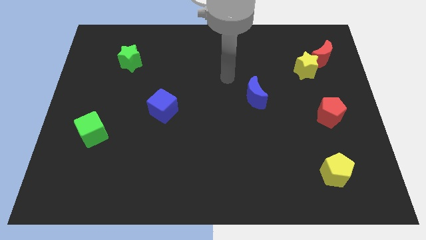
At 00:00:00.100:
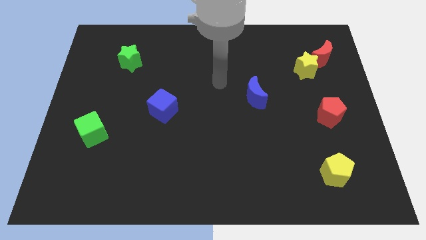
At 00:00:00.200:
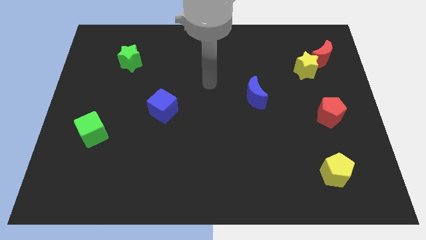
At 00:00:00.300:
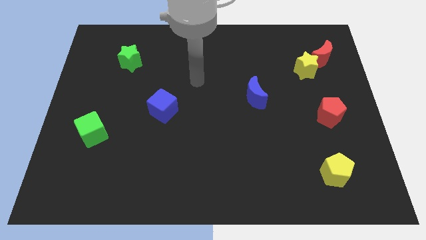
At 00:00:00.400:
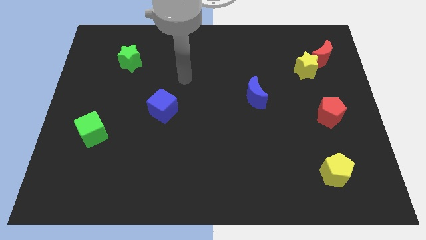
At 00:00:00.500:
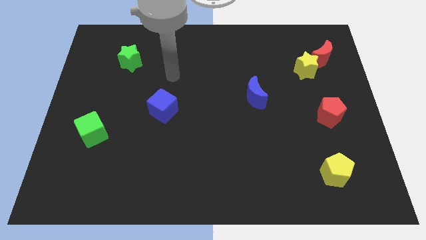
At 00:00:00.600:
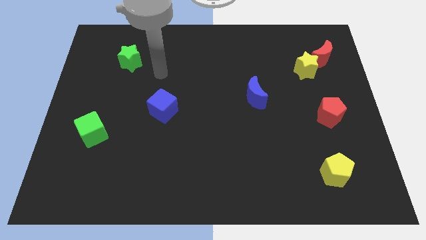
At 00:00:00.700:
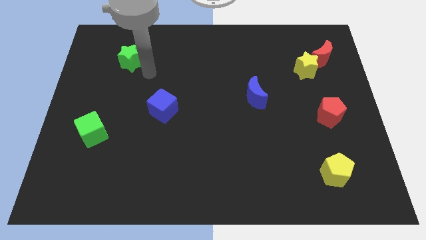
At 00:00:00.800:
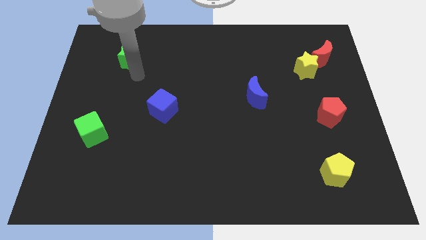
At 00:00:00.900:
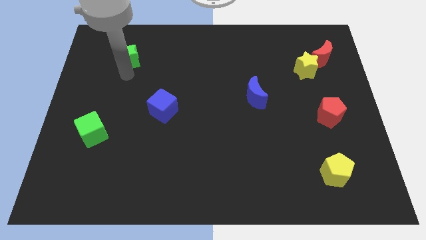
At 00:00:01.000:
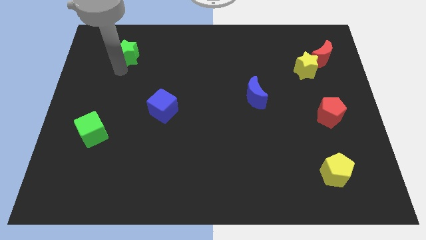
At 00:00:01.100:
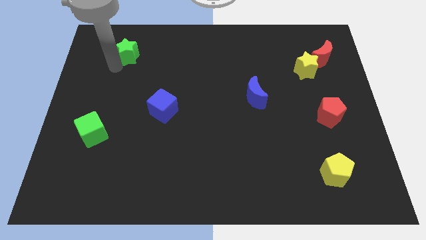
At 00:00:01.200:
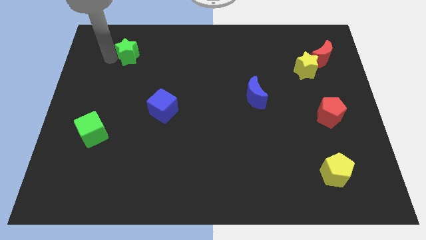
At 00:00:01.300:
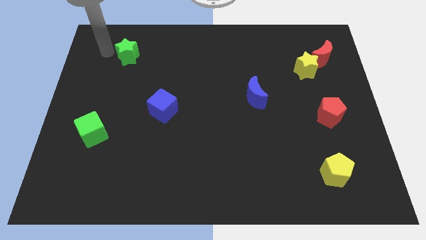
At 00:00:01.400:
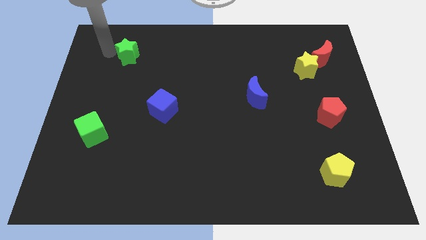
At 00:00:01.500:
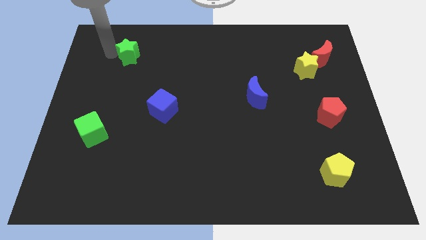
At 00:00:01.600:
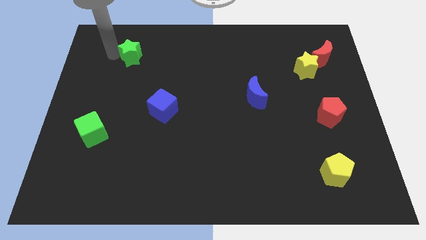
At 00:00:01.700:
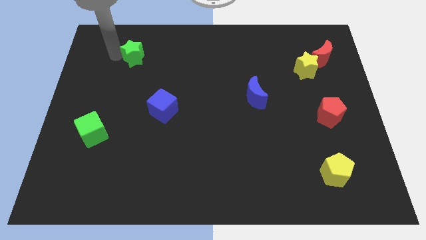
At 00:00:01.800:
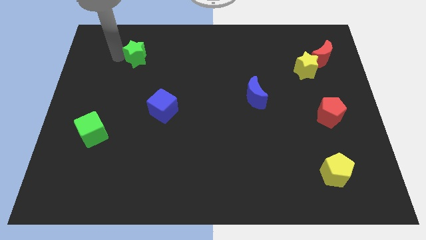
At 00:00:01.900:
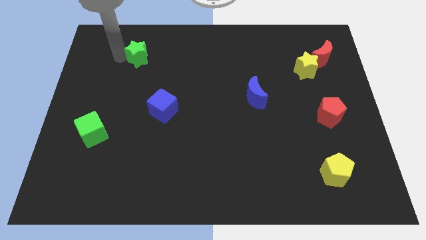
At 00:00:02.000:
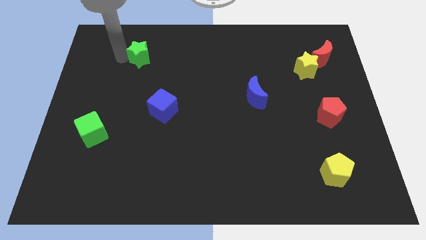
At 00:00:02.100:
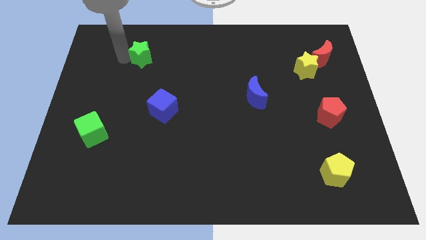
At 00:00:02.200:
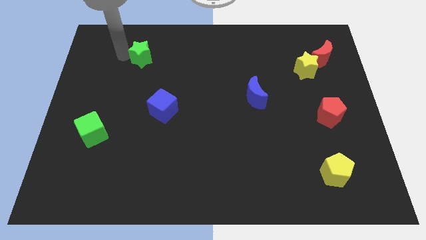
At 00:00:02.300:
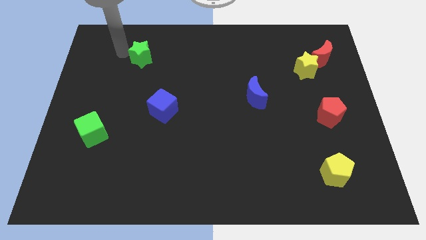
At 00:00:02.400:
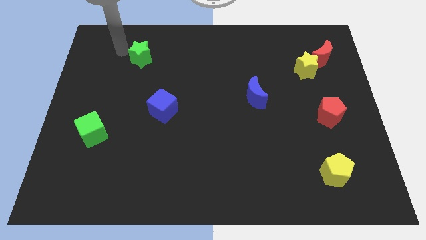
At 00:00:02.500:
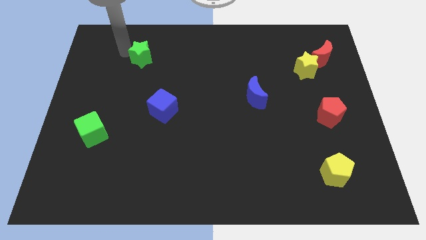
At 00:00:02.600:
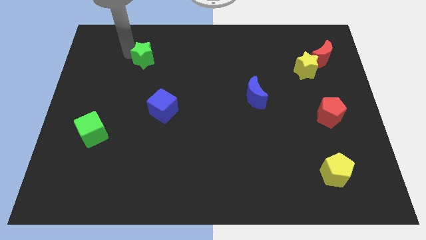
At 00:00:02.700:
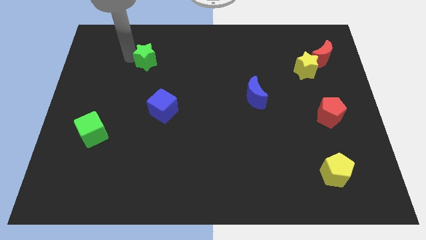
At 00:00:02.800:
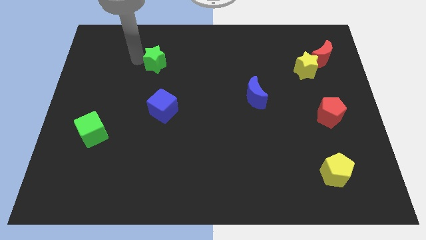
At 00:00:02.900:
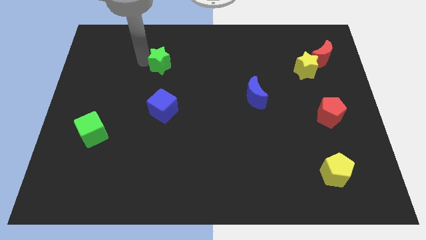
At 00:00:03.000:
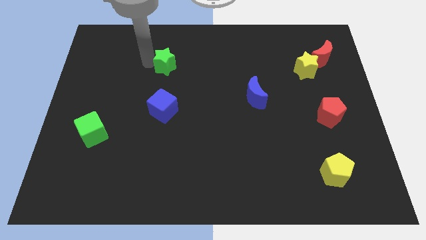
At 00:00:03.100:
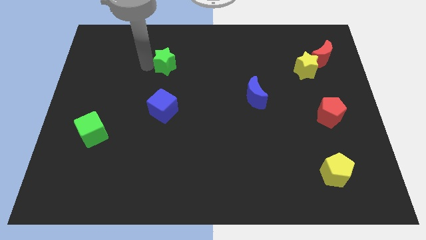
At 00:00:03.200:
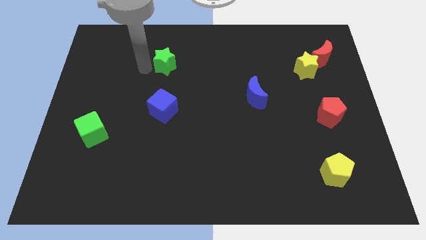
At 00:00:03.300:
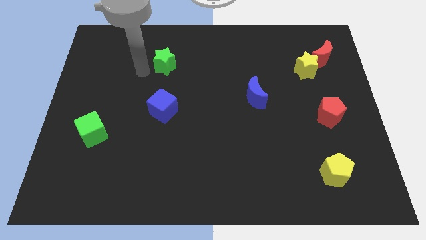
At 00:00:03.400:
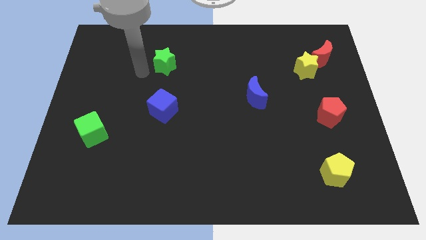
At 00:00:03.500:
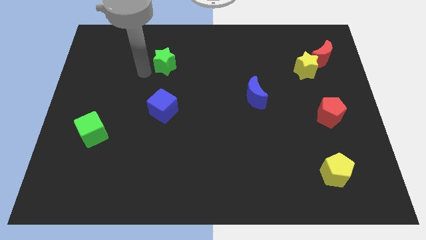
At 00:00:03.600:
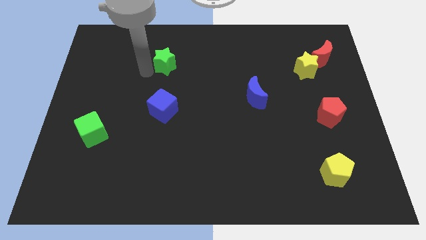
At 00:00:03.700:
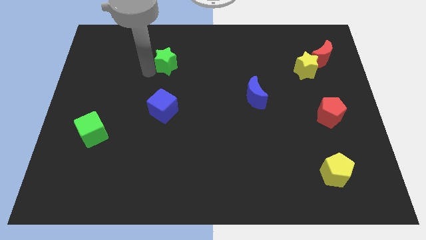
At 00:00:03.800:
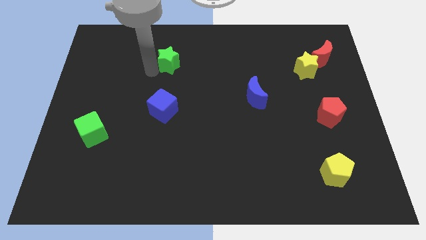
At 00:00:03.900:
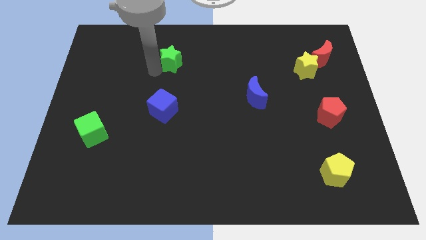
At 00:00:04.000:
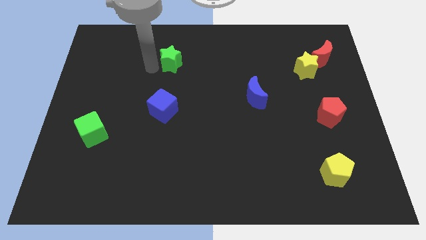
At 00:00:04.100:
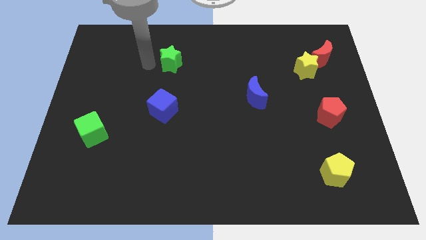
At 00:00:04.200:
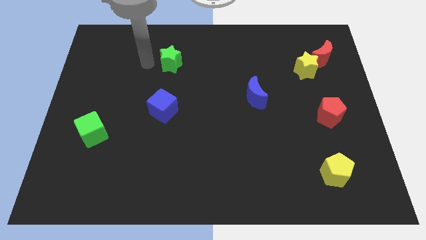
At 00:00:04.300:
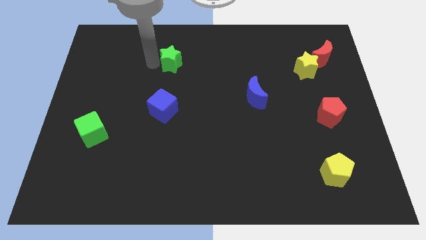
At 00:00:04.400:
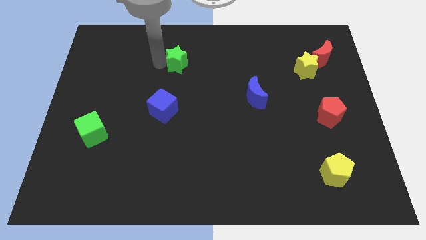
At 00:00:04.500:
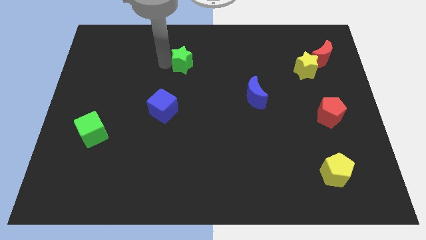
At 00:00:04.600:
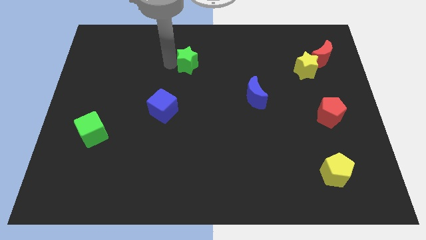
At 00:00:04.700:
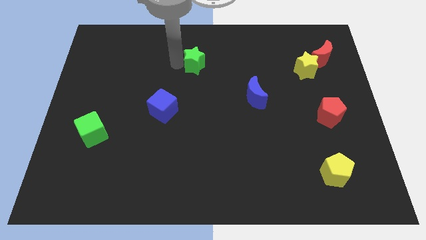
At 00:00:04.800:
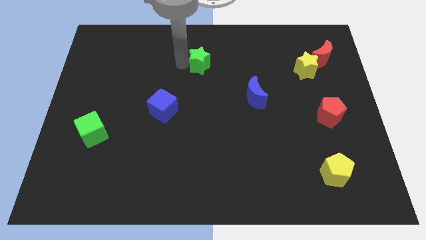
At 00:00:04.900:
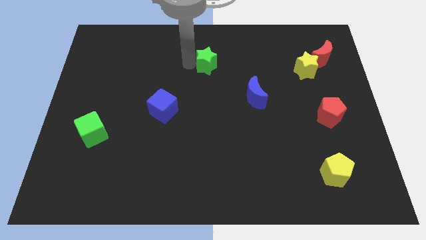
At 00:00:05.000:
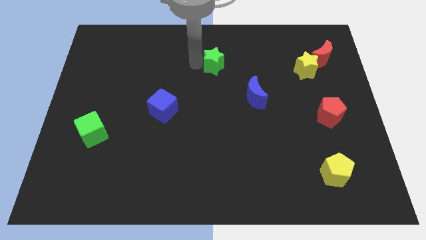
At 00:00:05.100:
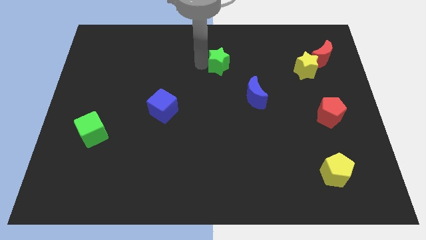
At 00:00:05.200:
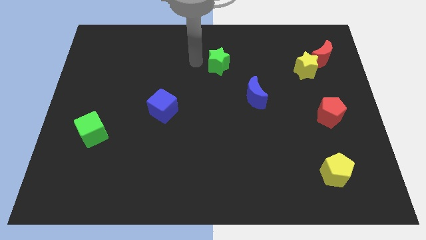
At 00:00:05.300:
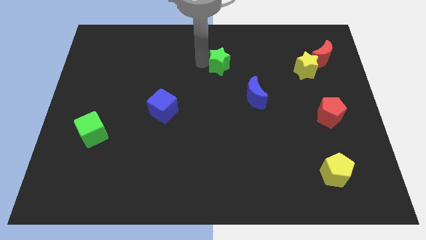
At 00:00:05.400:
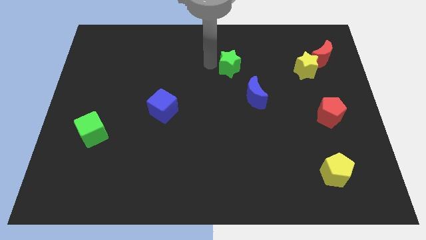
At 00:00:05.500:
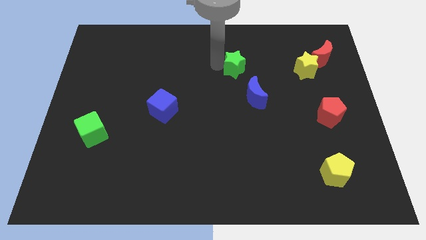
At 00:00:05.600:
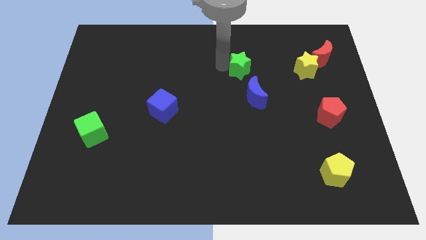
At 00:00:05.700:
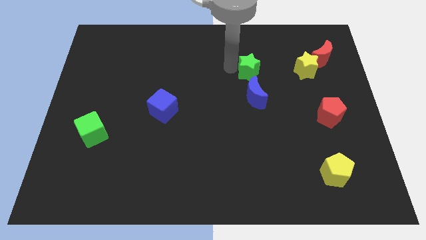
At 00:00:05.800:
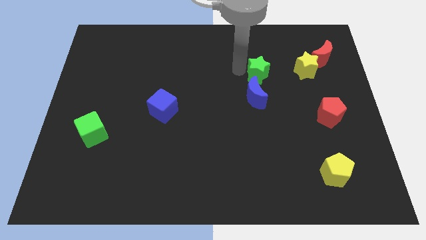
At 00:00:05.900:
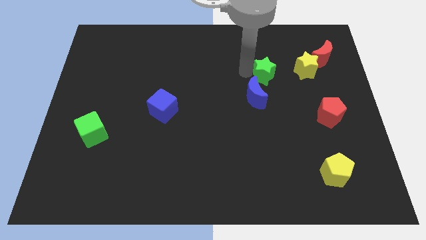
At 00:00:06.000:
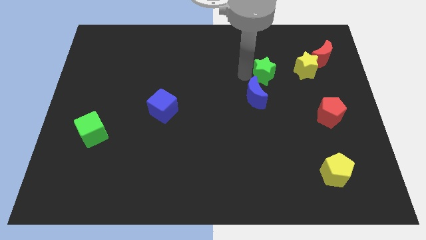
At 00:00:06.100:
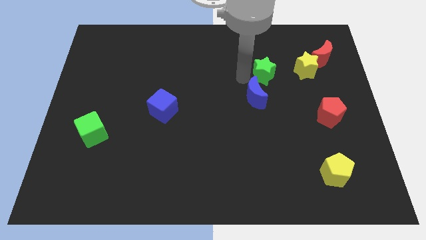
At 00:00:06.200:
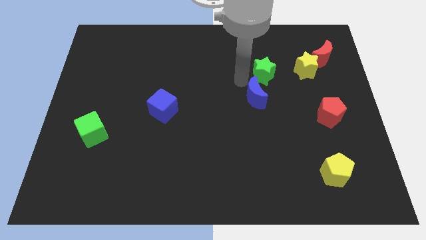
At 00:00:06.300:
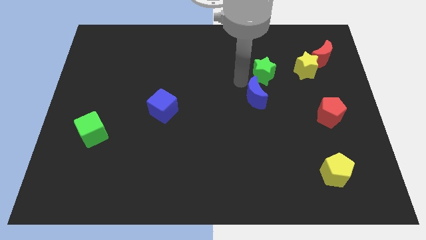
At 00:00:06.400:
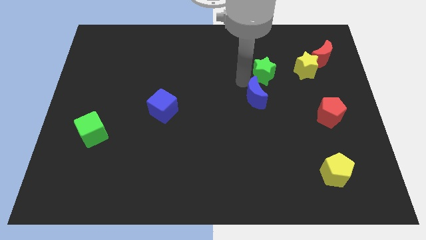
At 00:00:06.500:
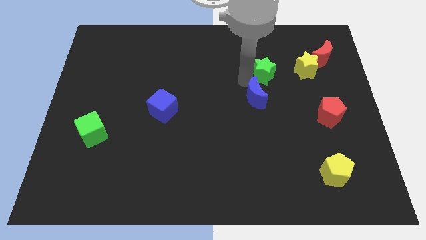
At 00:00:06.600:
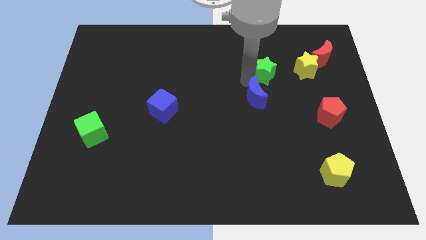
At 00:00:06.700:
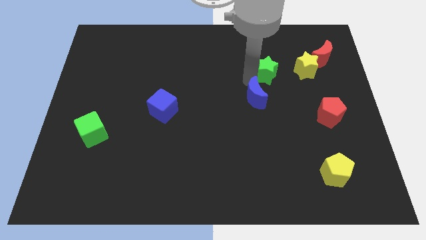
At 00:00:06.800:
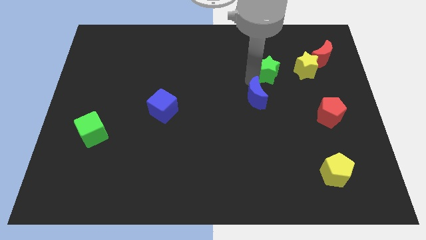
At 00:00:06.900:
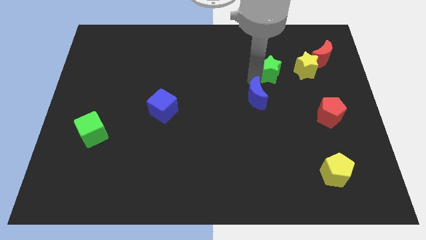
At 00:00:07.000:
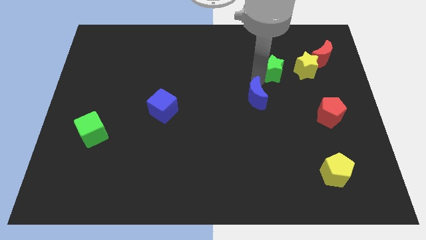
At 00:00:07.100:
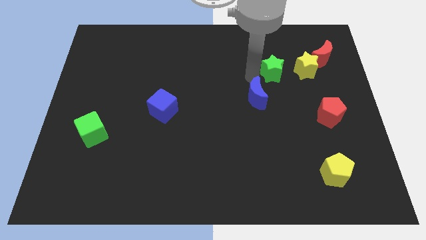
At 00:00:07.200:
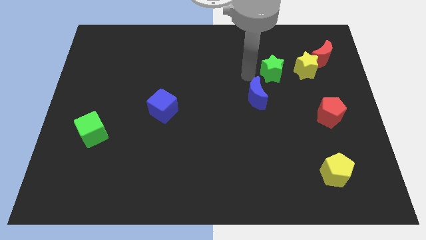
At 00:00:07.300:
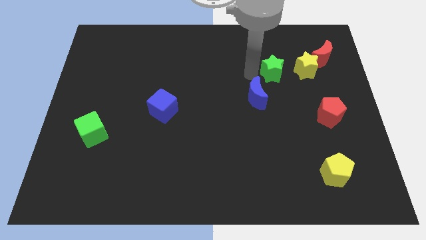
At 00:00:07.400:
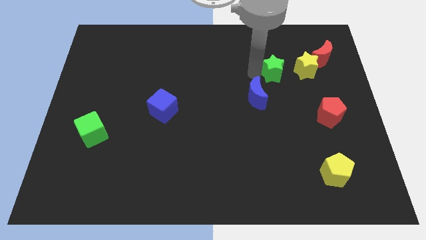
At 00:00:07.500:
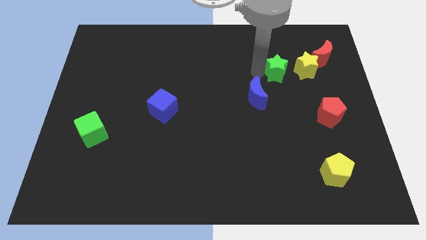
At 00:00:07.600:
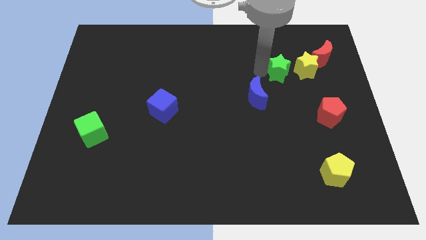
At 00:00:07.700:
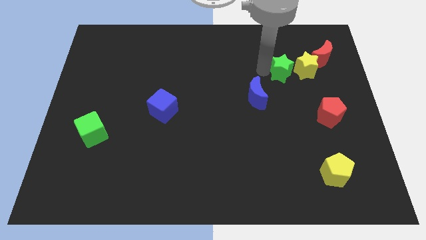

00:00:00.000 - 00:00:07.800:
push the green star close to the yellow star
